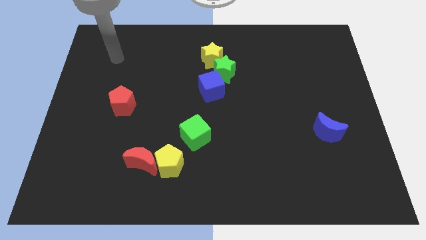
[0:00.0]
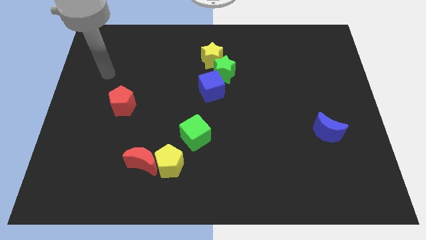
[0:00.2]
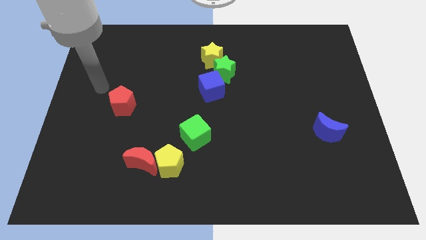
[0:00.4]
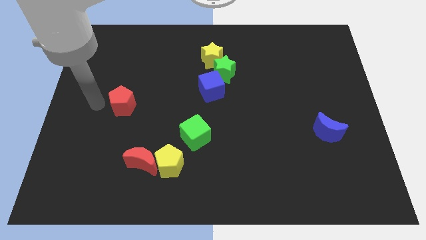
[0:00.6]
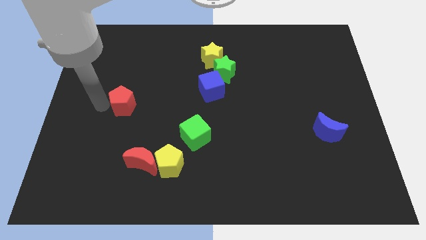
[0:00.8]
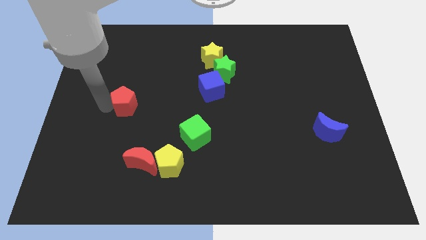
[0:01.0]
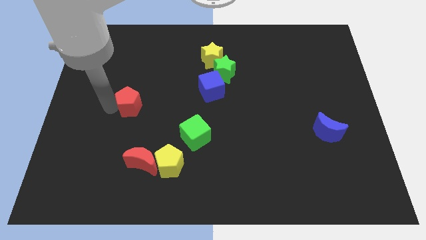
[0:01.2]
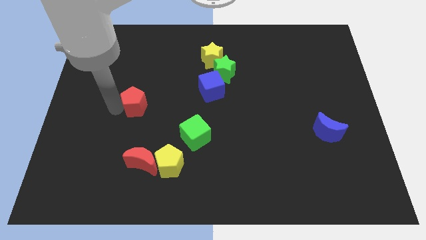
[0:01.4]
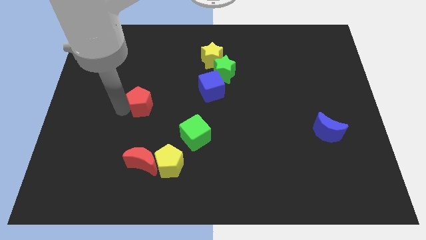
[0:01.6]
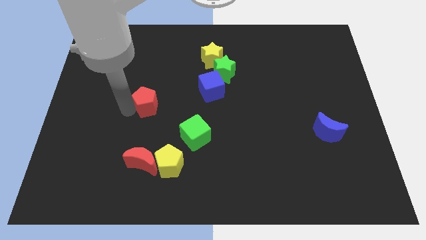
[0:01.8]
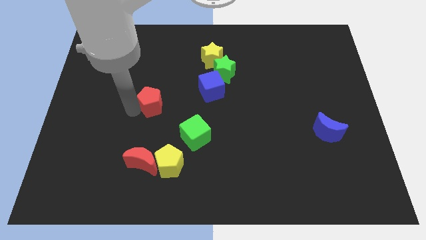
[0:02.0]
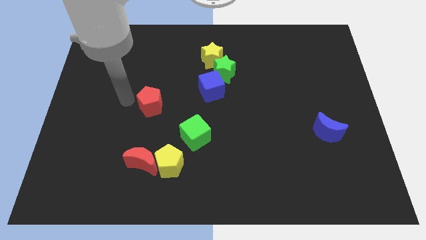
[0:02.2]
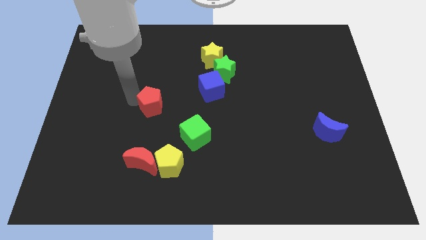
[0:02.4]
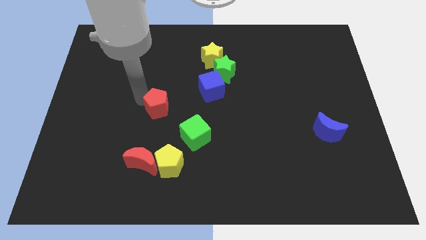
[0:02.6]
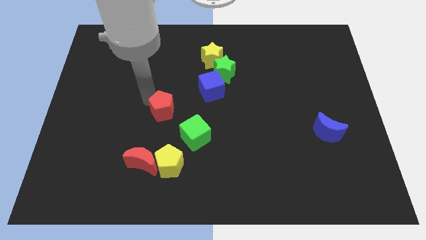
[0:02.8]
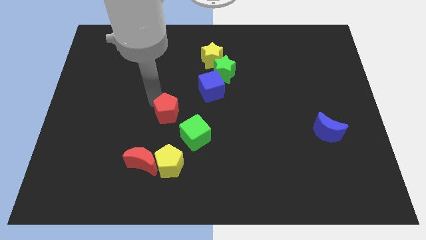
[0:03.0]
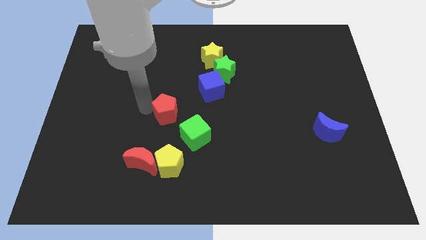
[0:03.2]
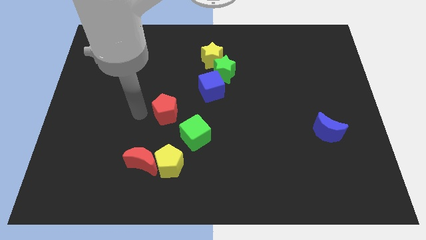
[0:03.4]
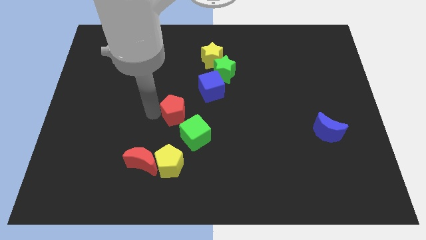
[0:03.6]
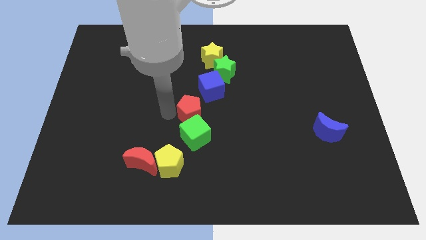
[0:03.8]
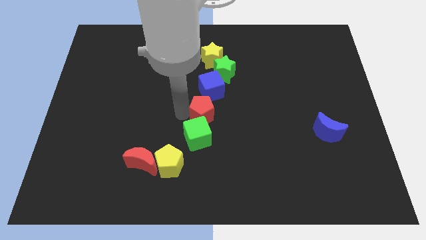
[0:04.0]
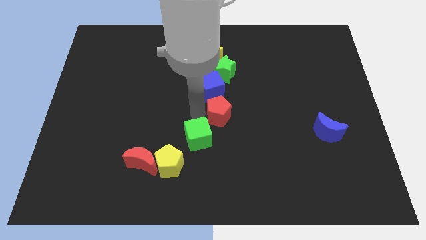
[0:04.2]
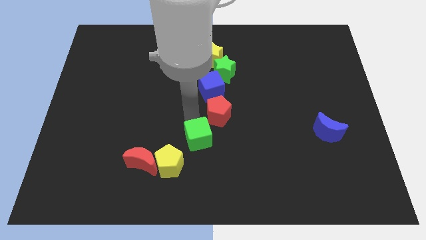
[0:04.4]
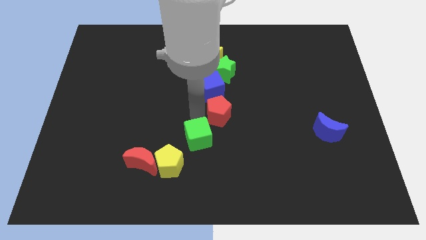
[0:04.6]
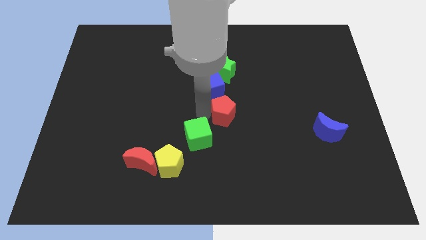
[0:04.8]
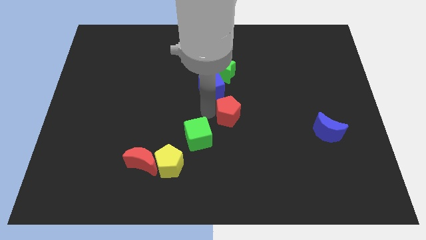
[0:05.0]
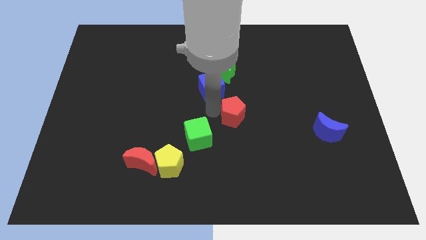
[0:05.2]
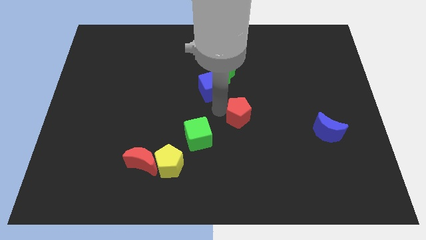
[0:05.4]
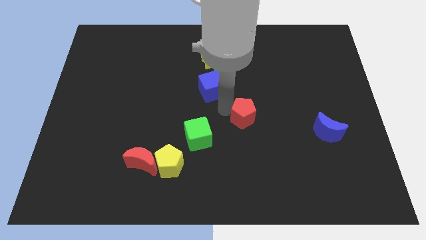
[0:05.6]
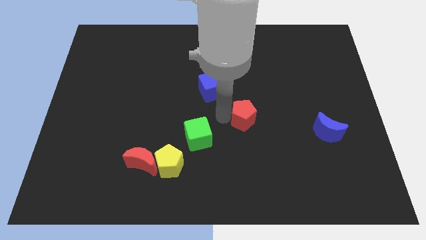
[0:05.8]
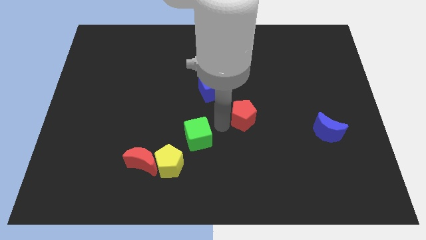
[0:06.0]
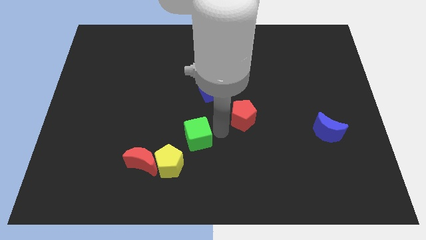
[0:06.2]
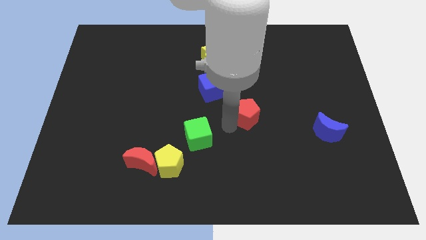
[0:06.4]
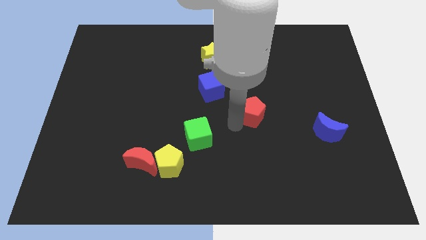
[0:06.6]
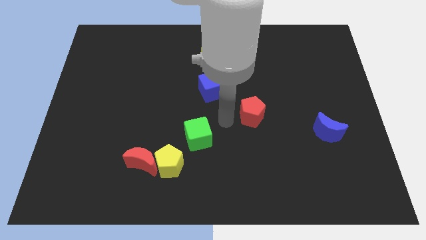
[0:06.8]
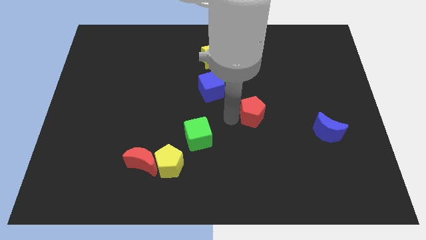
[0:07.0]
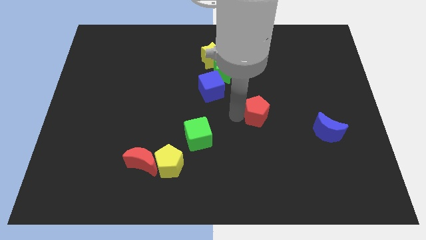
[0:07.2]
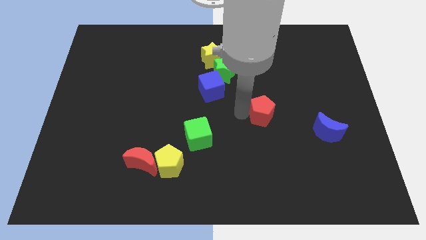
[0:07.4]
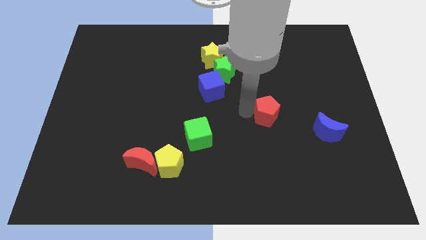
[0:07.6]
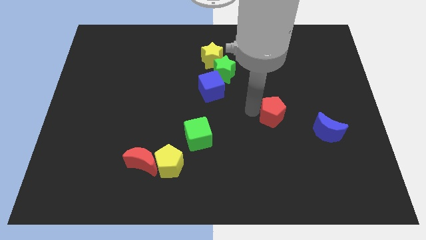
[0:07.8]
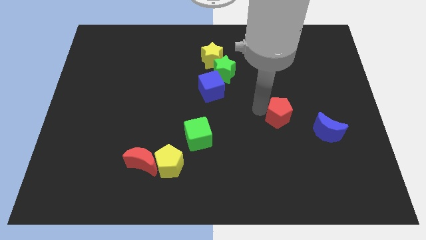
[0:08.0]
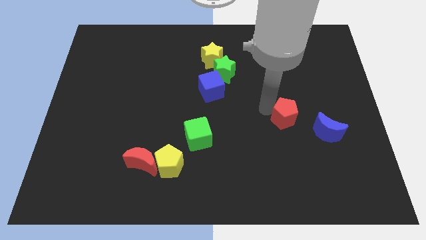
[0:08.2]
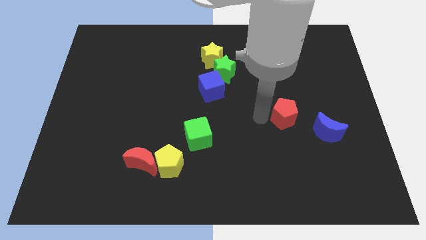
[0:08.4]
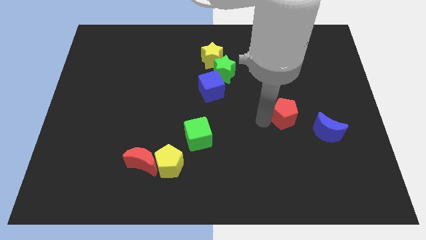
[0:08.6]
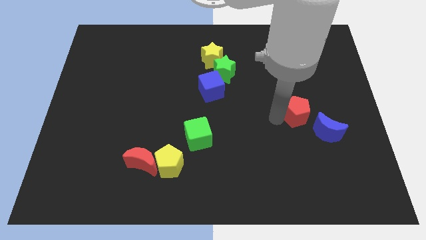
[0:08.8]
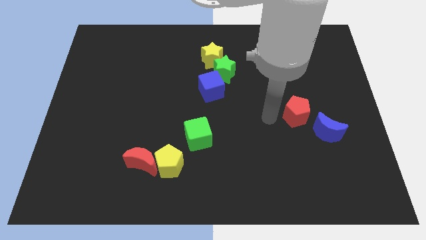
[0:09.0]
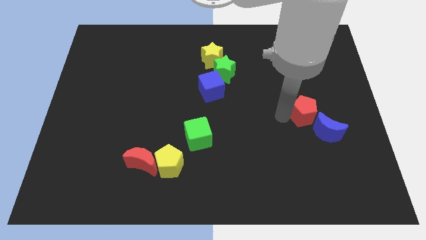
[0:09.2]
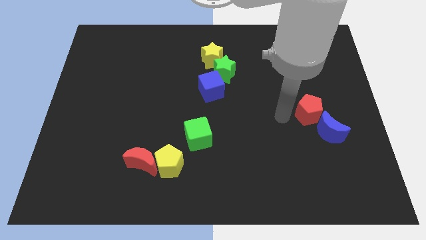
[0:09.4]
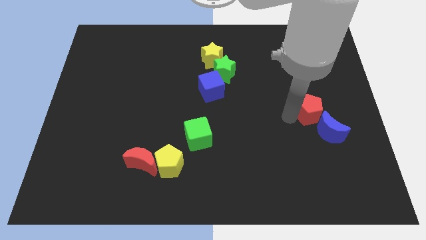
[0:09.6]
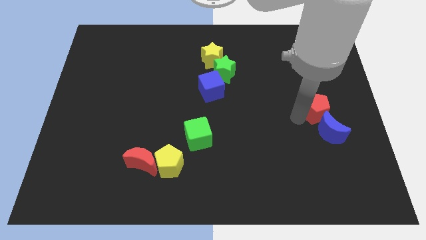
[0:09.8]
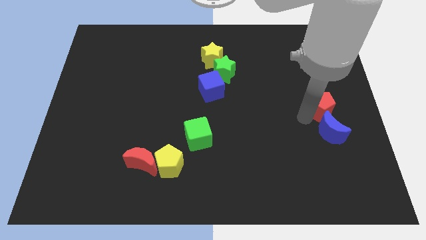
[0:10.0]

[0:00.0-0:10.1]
push the red pentagon to the center right

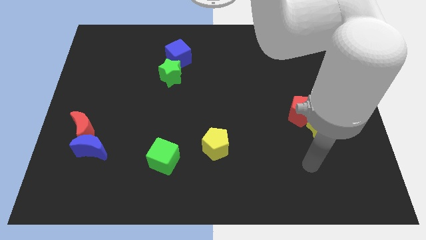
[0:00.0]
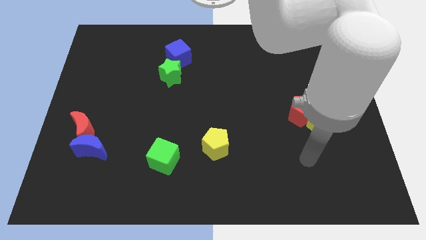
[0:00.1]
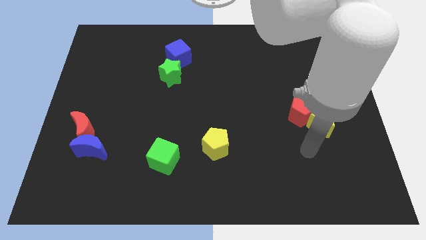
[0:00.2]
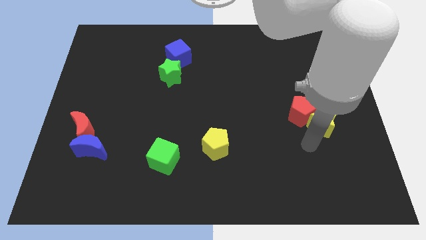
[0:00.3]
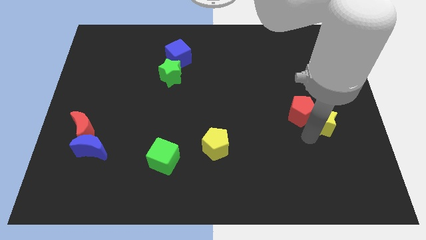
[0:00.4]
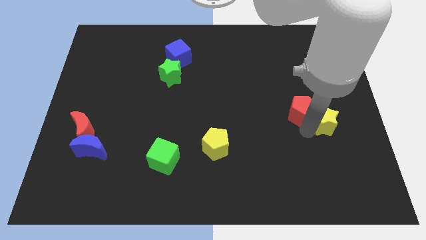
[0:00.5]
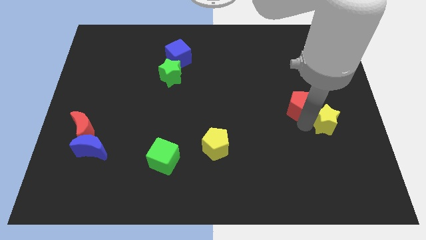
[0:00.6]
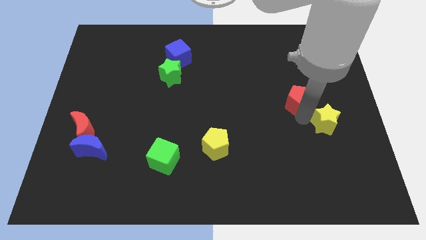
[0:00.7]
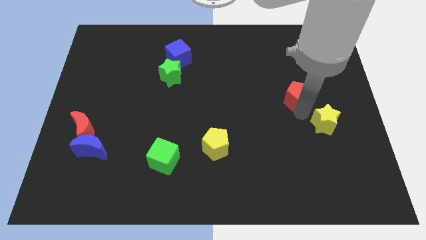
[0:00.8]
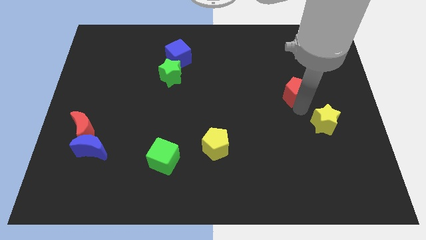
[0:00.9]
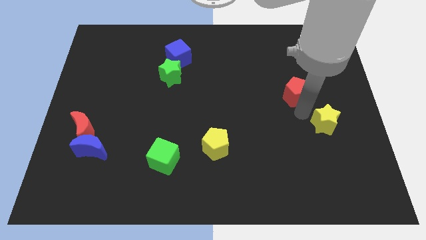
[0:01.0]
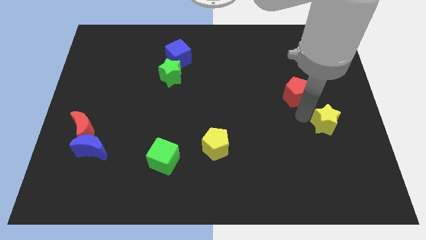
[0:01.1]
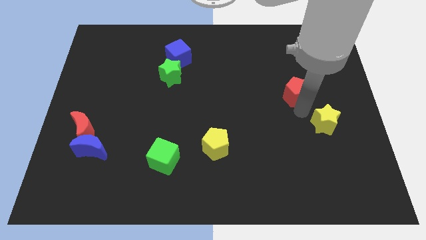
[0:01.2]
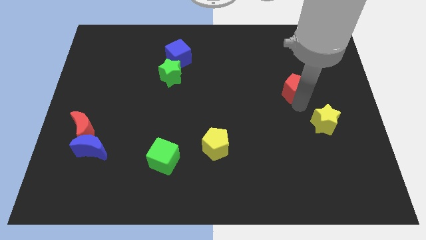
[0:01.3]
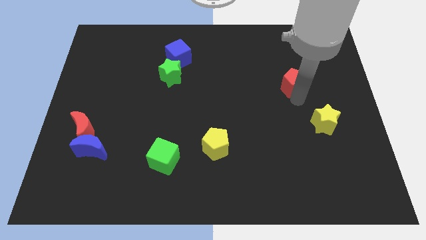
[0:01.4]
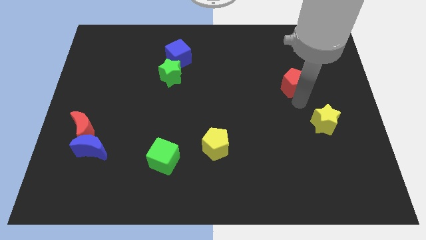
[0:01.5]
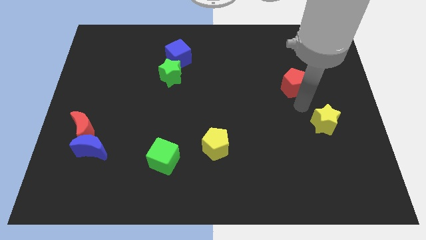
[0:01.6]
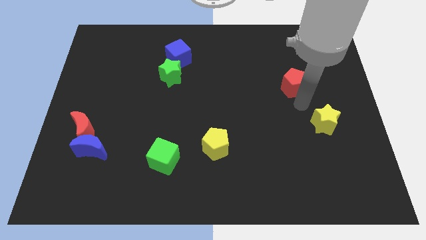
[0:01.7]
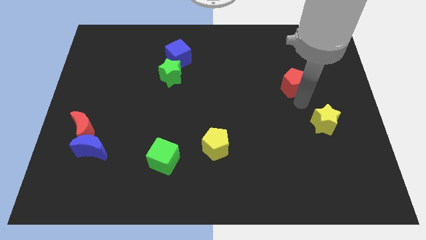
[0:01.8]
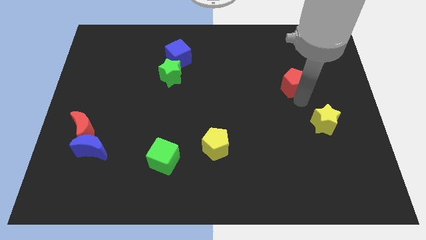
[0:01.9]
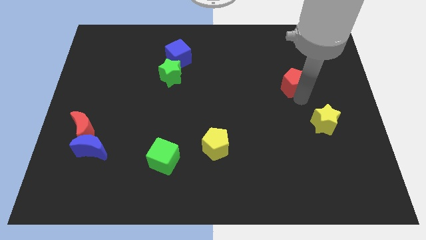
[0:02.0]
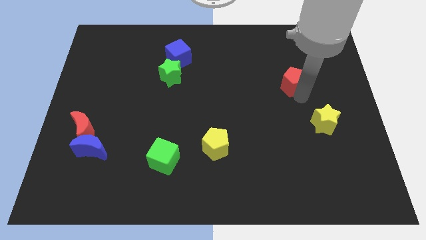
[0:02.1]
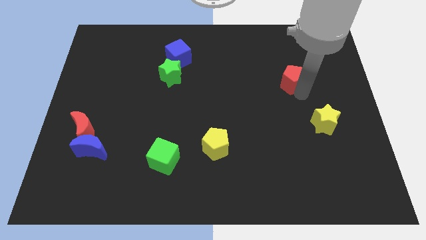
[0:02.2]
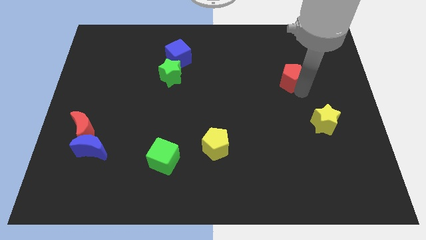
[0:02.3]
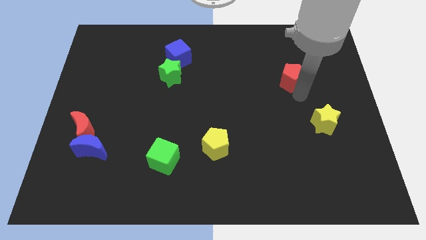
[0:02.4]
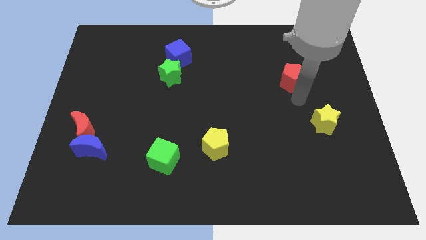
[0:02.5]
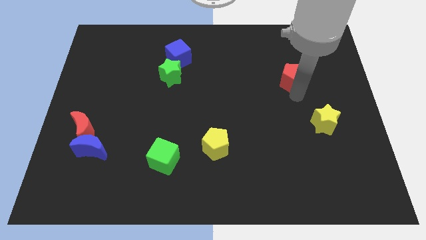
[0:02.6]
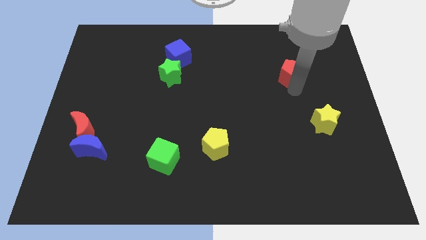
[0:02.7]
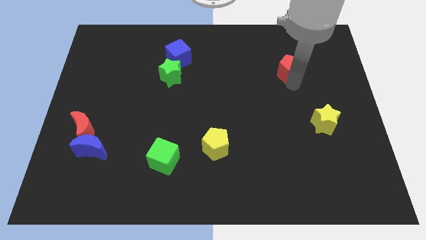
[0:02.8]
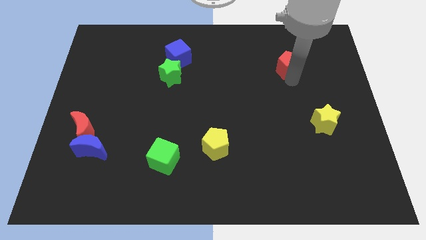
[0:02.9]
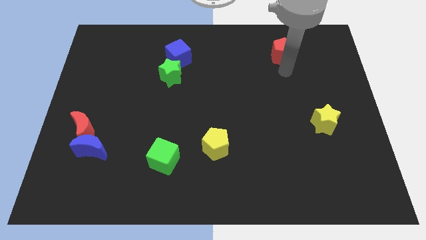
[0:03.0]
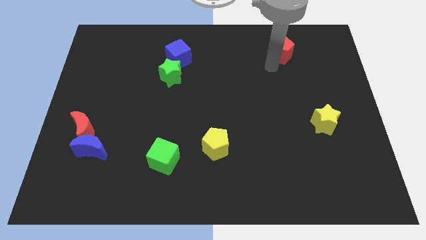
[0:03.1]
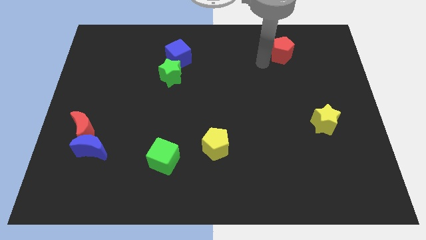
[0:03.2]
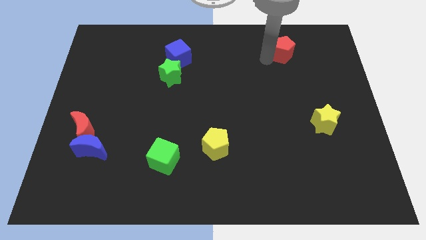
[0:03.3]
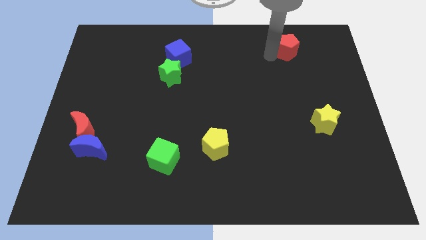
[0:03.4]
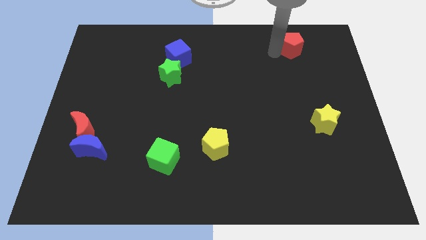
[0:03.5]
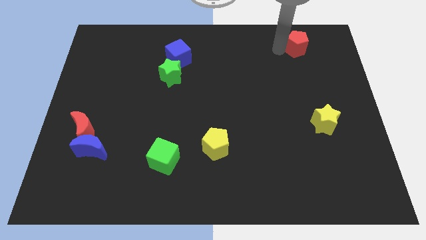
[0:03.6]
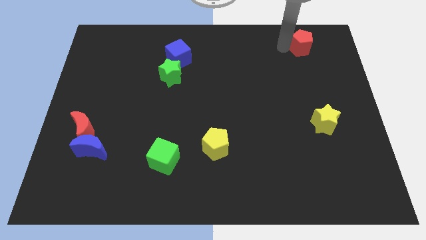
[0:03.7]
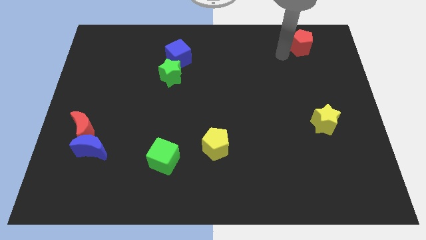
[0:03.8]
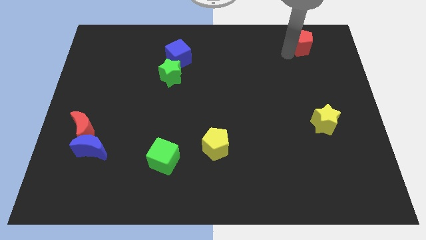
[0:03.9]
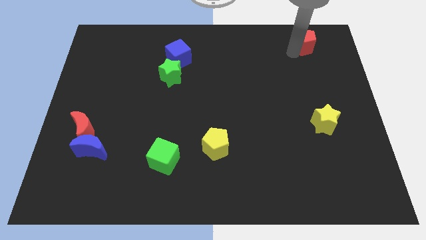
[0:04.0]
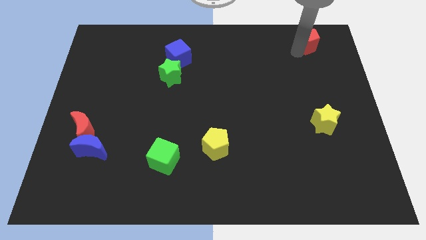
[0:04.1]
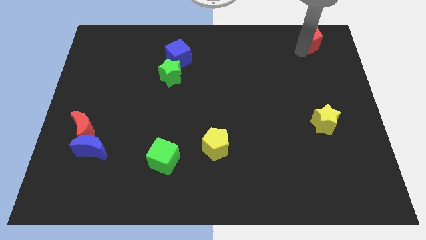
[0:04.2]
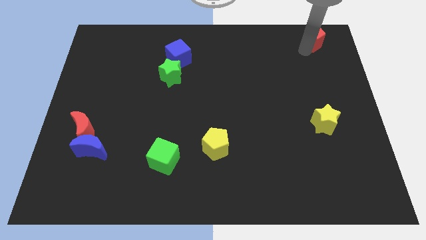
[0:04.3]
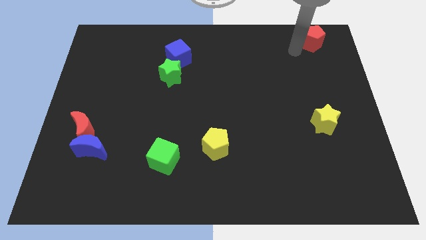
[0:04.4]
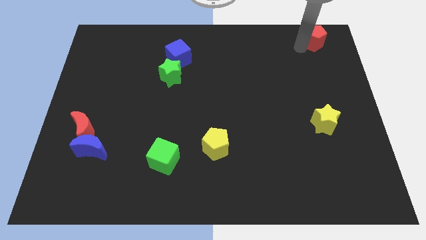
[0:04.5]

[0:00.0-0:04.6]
push the red pentagon to the top right of the board
